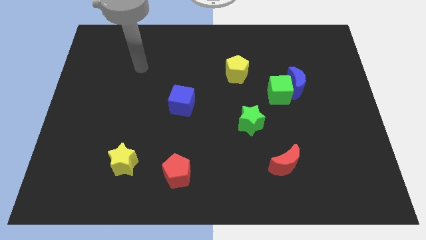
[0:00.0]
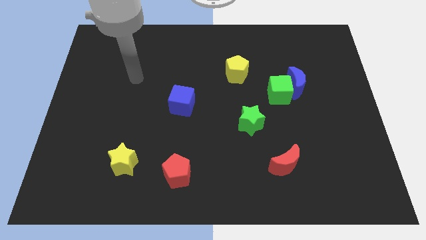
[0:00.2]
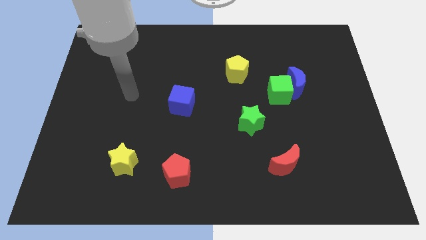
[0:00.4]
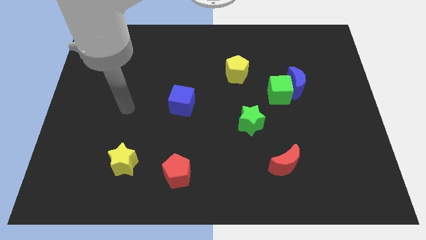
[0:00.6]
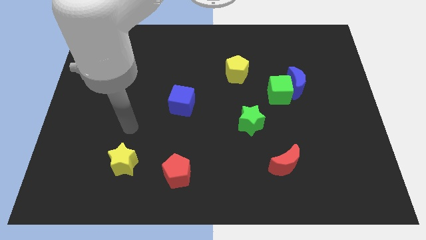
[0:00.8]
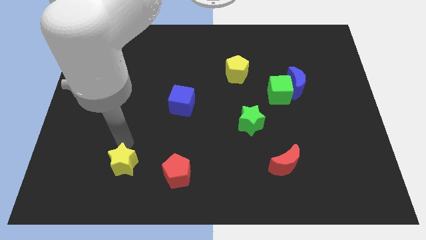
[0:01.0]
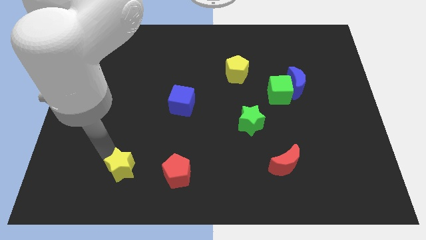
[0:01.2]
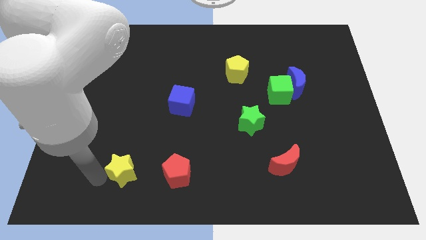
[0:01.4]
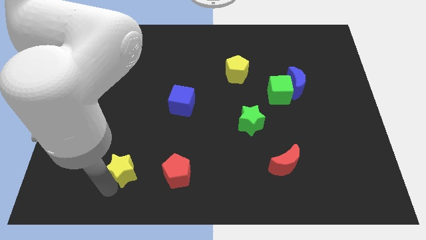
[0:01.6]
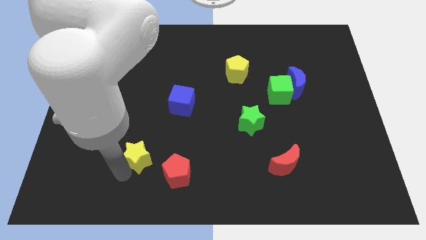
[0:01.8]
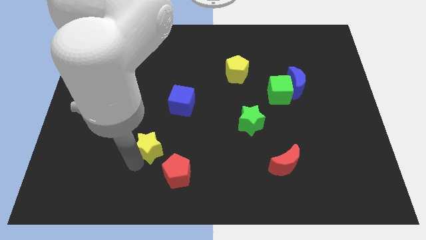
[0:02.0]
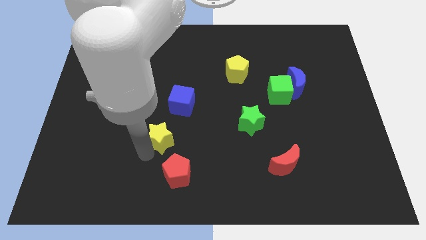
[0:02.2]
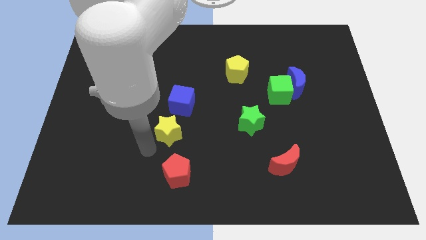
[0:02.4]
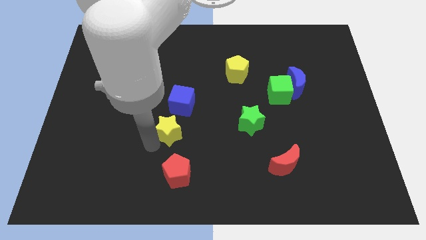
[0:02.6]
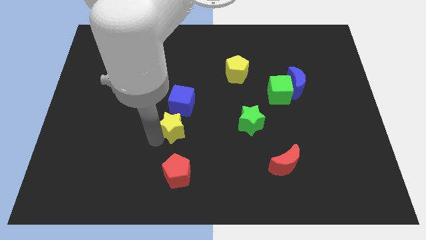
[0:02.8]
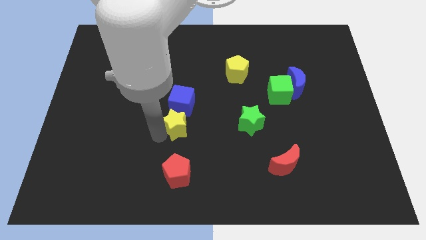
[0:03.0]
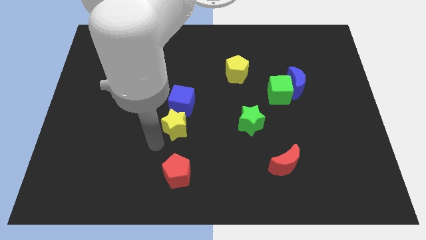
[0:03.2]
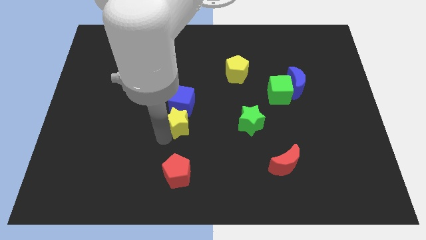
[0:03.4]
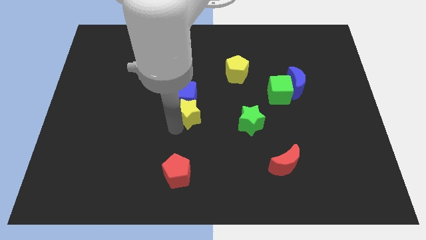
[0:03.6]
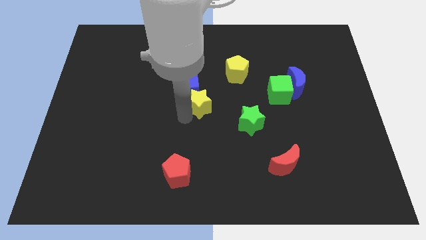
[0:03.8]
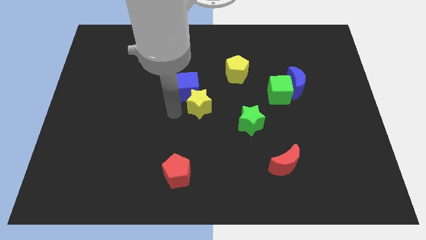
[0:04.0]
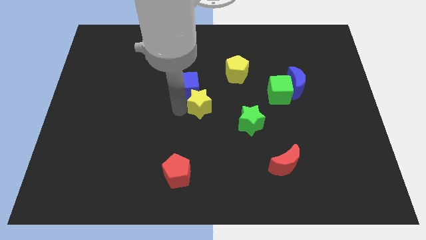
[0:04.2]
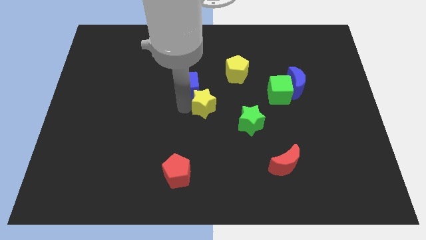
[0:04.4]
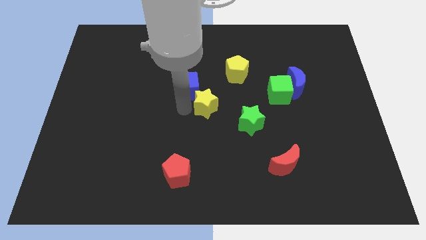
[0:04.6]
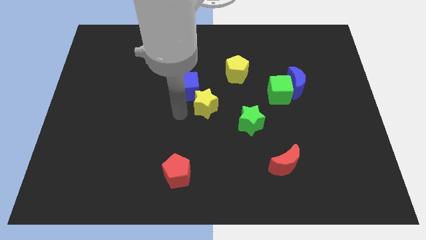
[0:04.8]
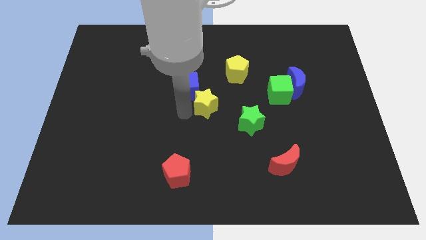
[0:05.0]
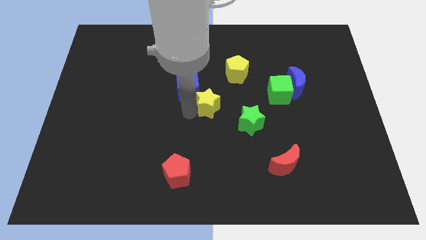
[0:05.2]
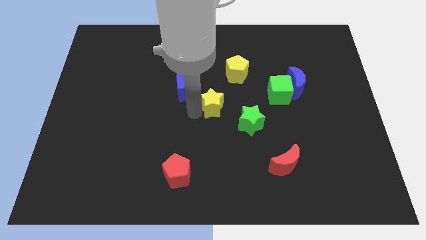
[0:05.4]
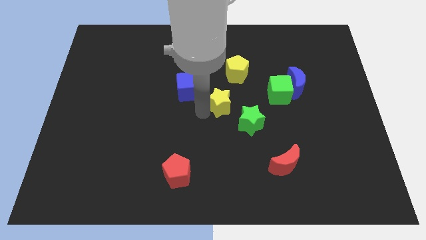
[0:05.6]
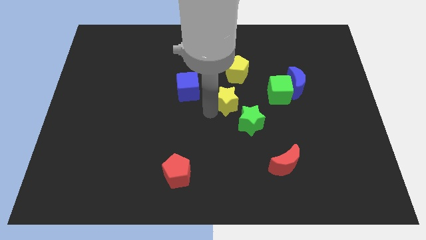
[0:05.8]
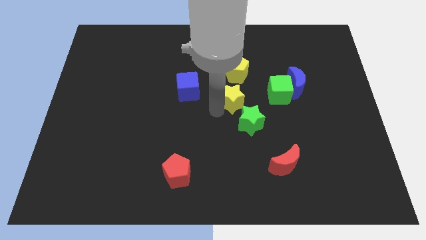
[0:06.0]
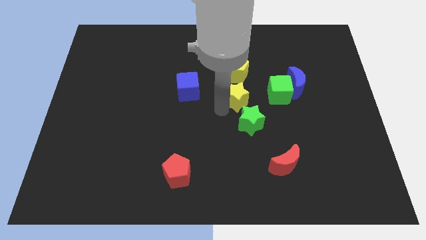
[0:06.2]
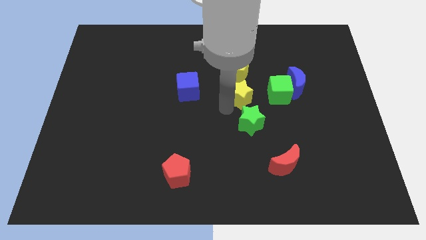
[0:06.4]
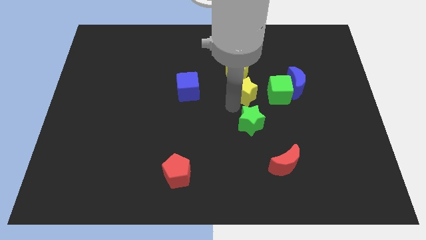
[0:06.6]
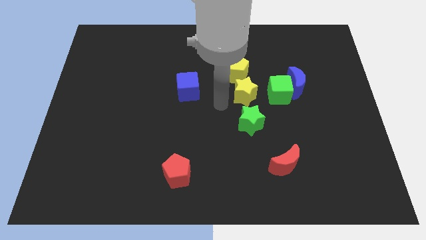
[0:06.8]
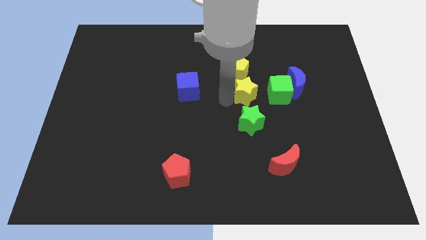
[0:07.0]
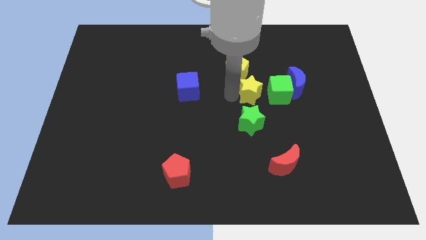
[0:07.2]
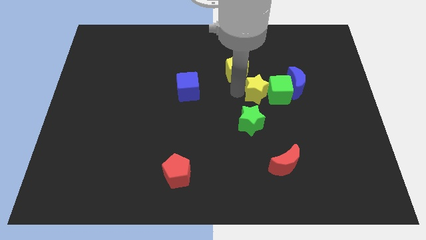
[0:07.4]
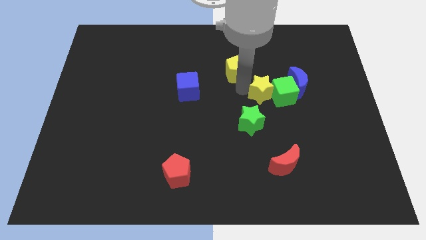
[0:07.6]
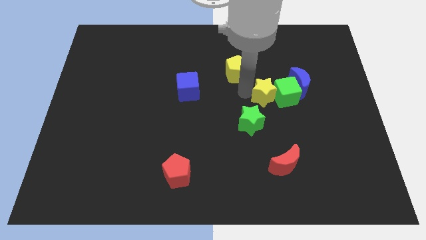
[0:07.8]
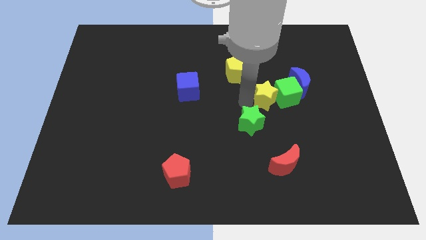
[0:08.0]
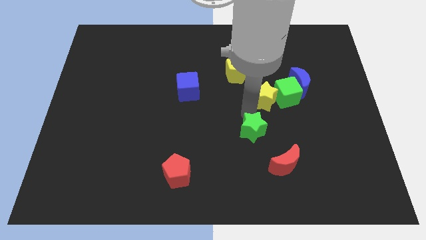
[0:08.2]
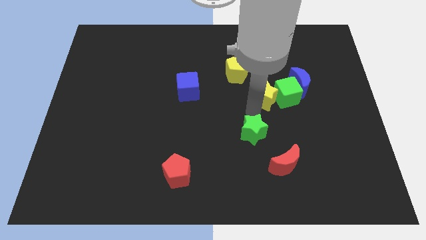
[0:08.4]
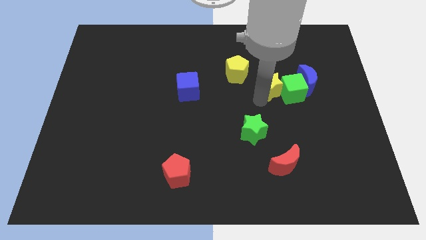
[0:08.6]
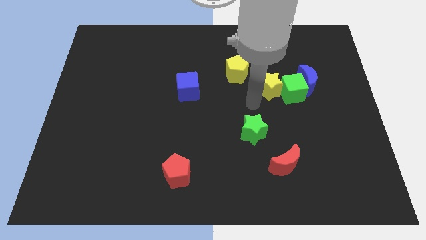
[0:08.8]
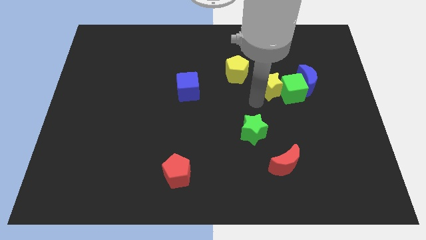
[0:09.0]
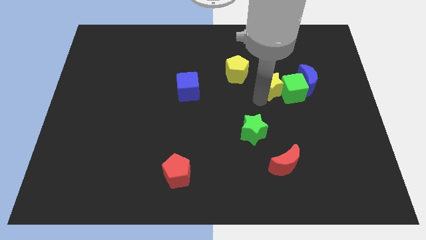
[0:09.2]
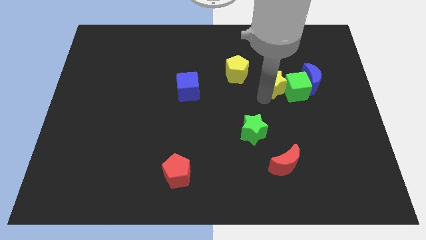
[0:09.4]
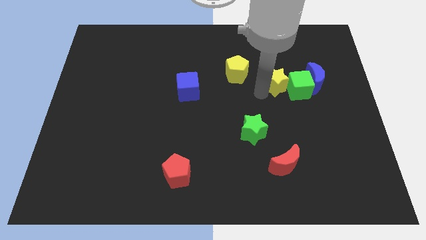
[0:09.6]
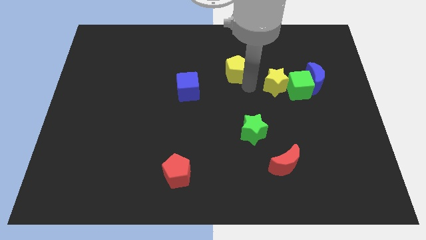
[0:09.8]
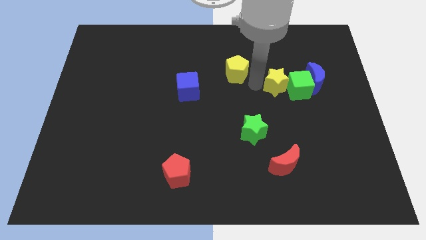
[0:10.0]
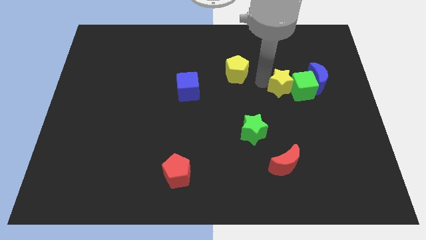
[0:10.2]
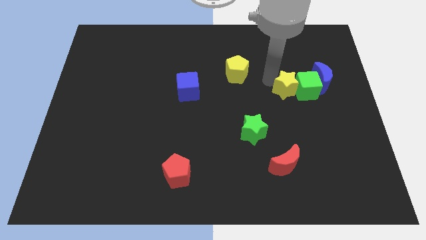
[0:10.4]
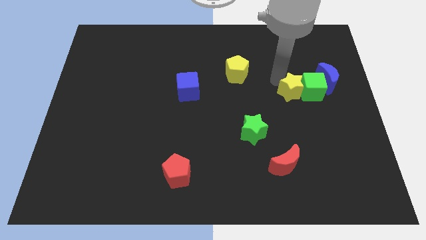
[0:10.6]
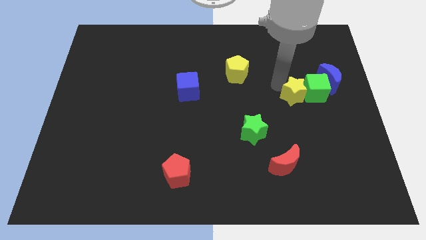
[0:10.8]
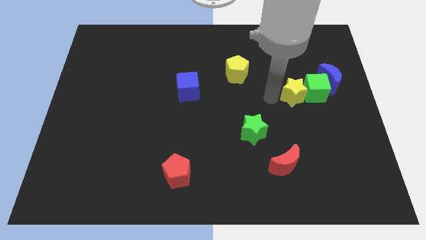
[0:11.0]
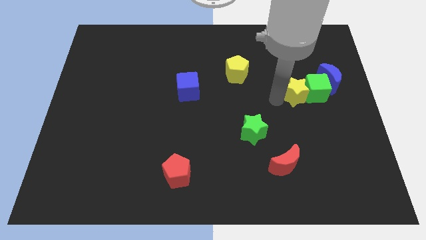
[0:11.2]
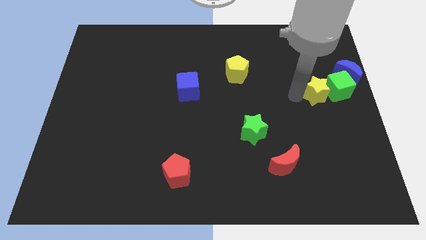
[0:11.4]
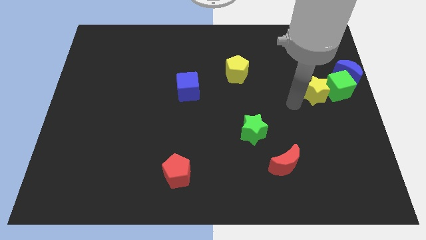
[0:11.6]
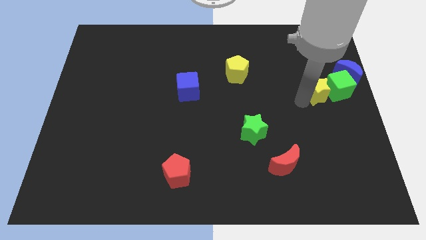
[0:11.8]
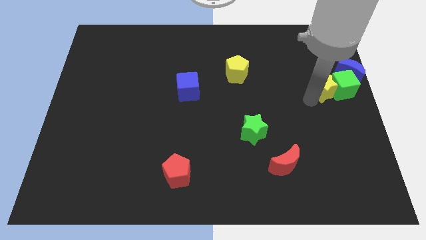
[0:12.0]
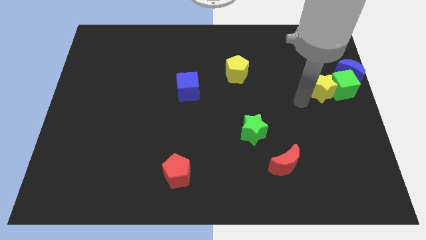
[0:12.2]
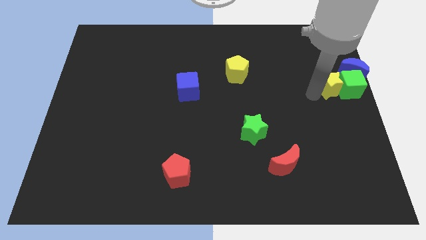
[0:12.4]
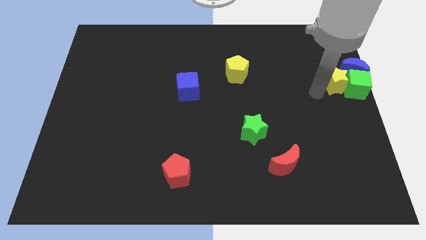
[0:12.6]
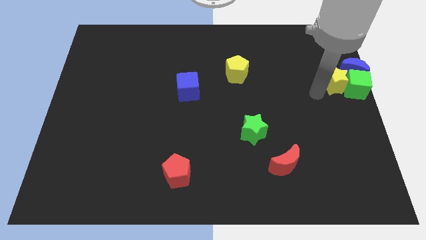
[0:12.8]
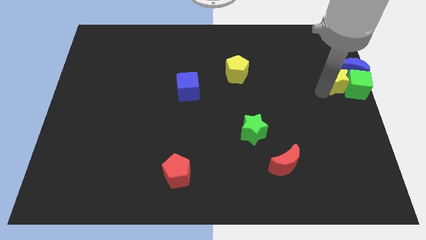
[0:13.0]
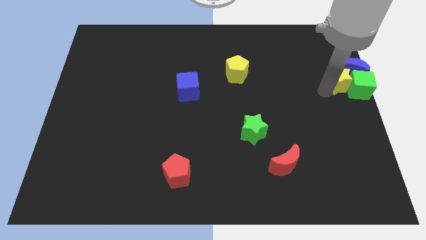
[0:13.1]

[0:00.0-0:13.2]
push the yellow star close to the blue moon

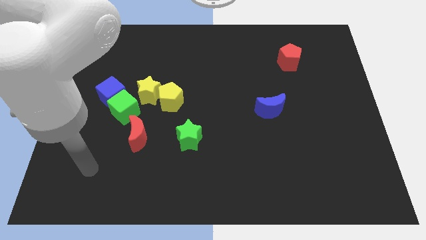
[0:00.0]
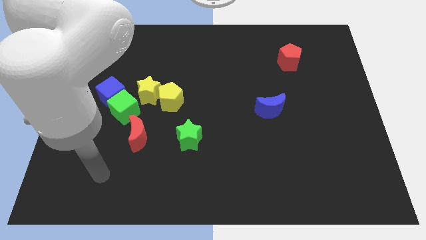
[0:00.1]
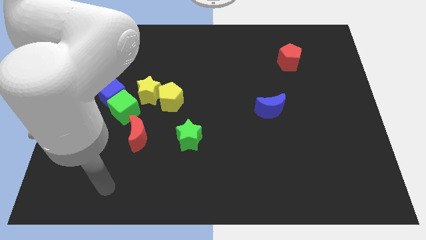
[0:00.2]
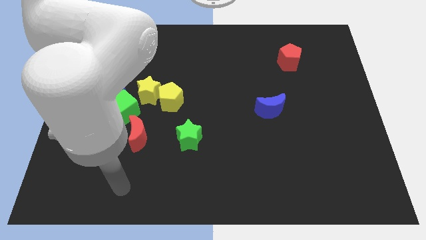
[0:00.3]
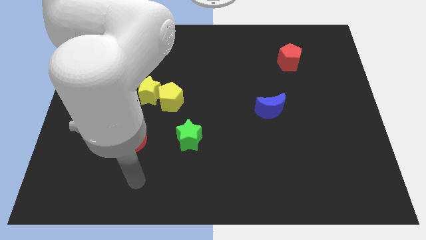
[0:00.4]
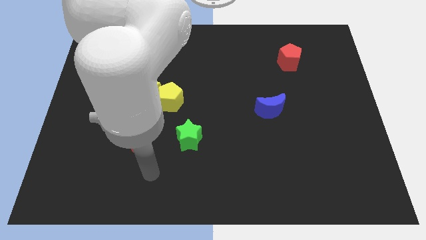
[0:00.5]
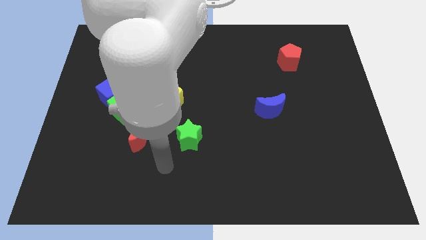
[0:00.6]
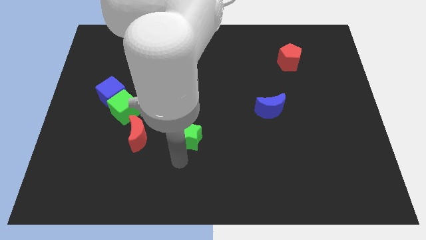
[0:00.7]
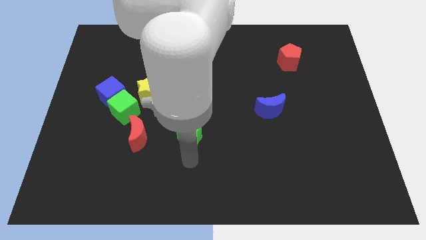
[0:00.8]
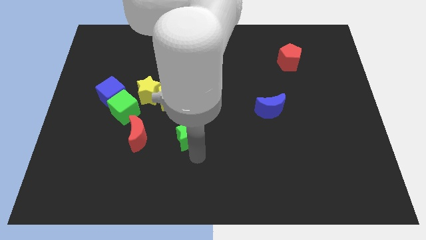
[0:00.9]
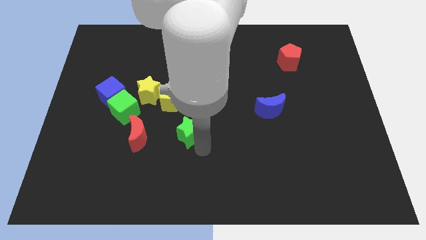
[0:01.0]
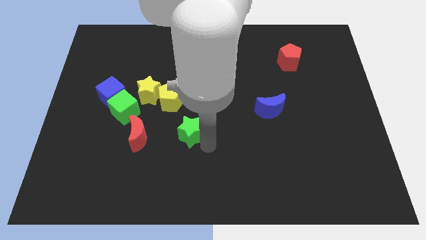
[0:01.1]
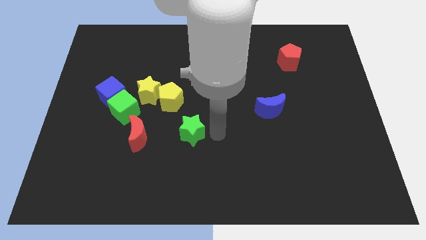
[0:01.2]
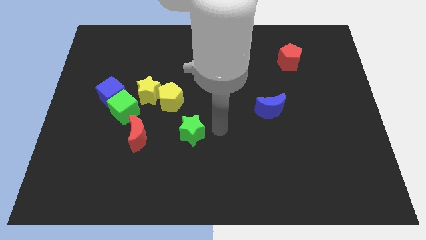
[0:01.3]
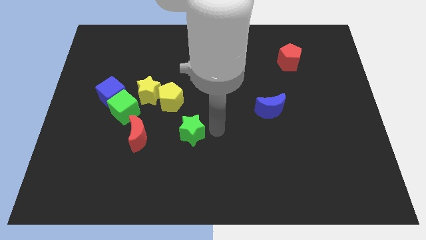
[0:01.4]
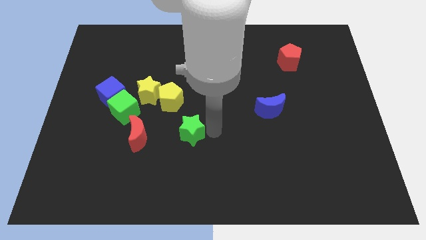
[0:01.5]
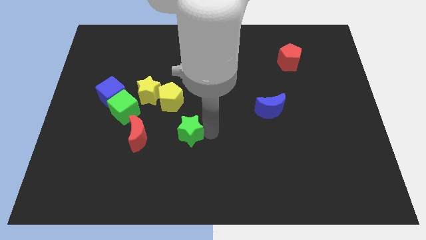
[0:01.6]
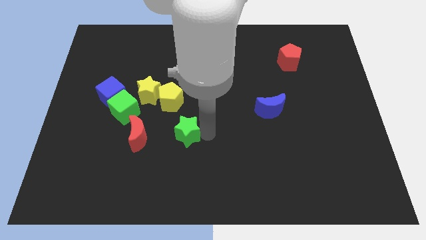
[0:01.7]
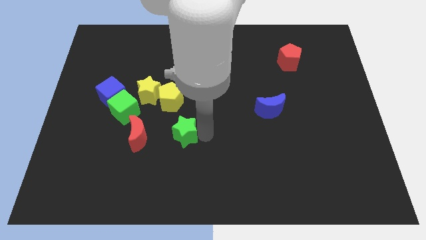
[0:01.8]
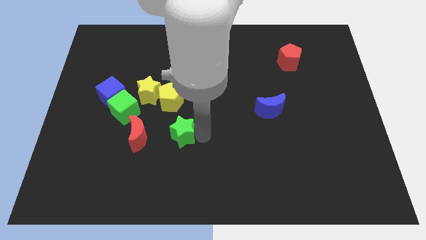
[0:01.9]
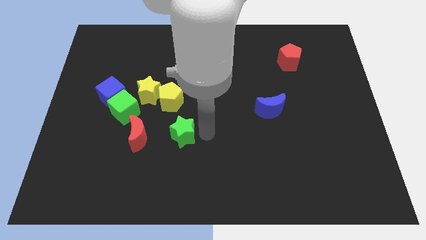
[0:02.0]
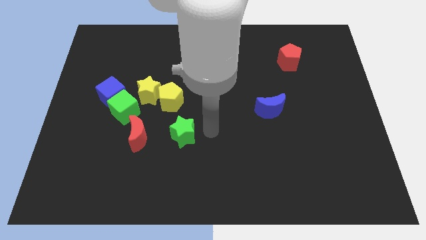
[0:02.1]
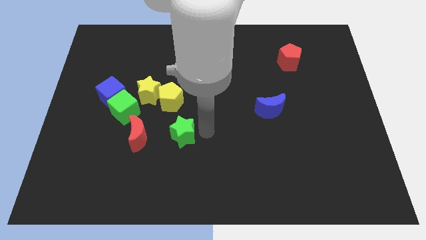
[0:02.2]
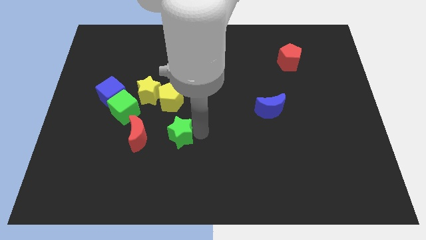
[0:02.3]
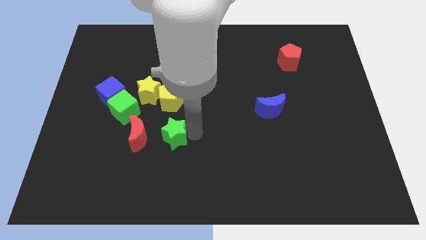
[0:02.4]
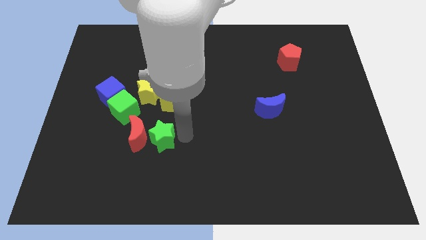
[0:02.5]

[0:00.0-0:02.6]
put the green star close to the red moon
